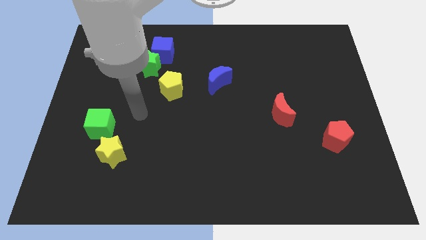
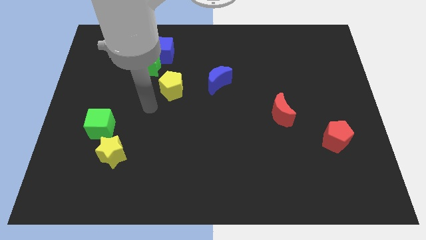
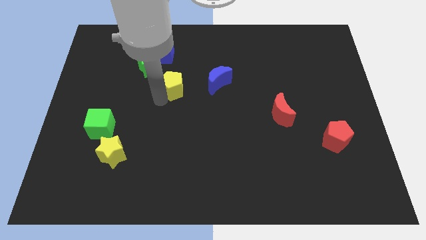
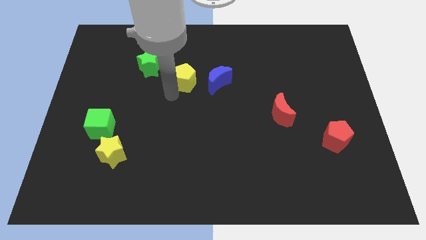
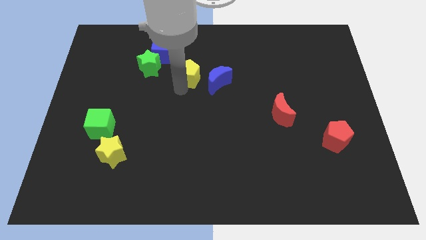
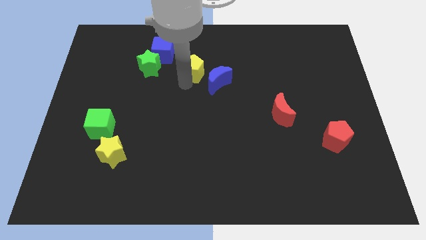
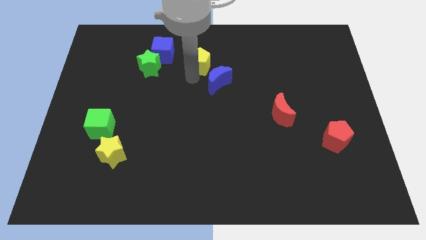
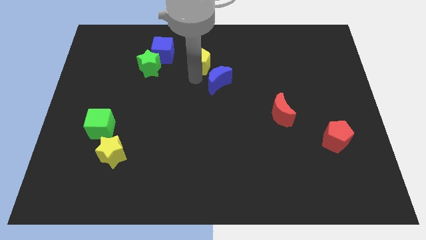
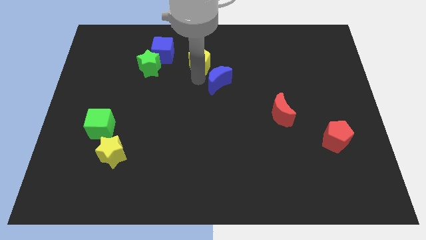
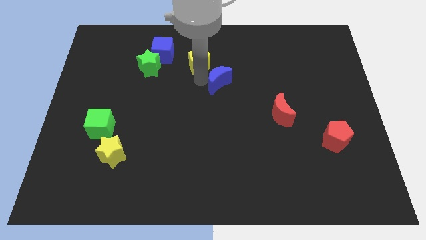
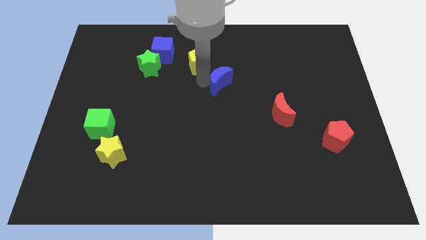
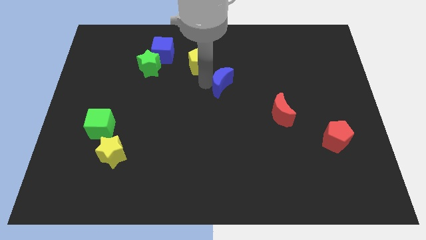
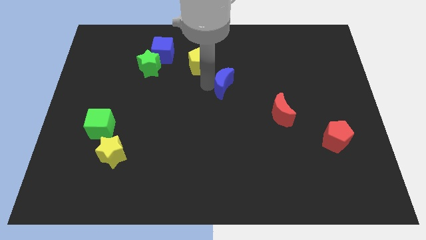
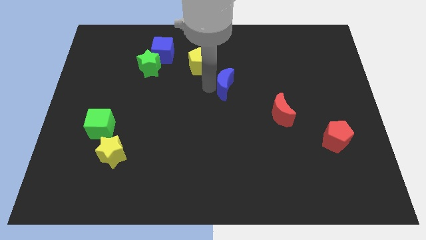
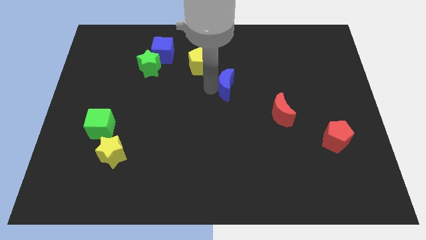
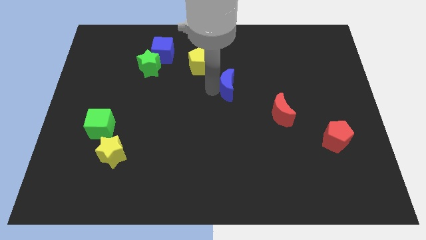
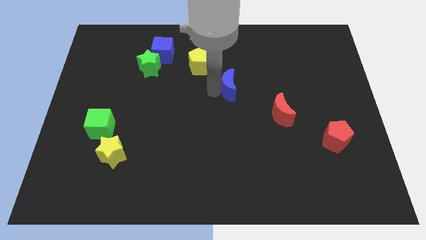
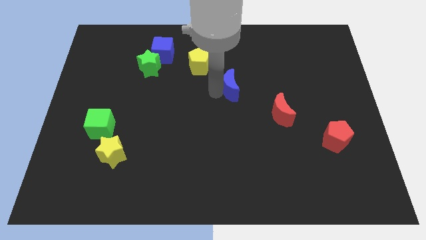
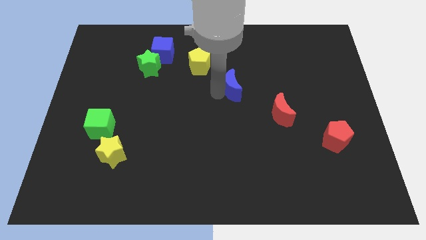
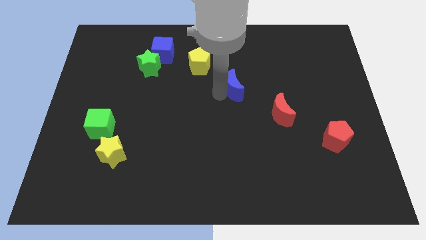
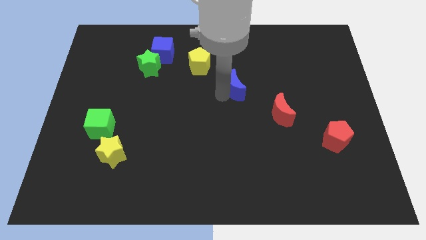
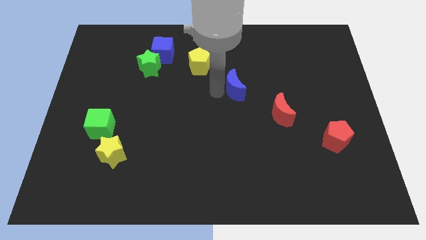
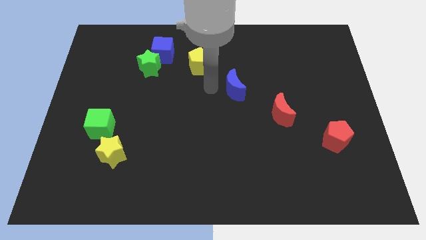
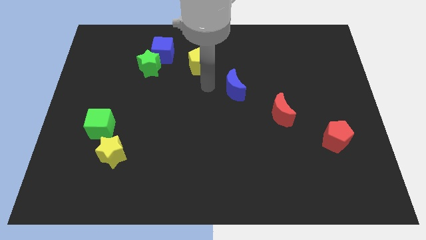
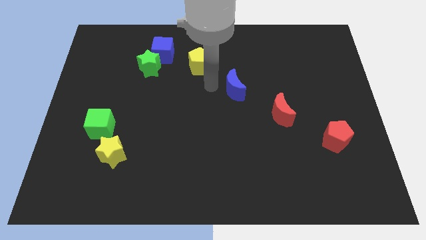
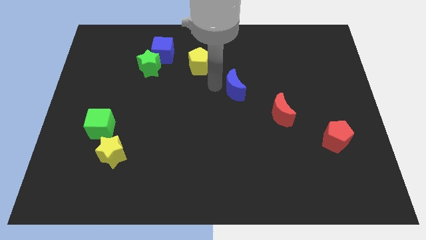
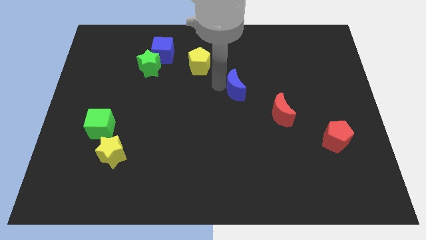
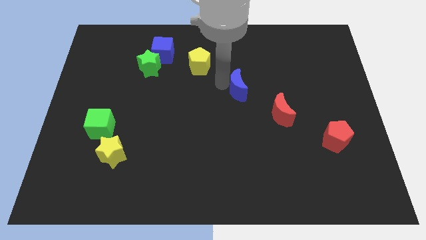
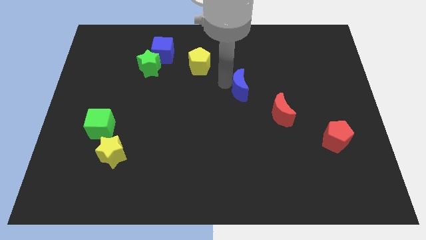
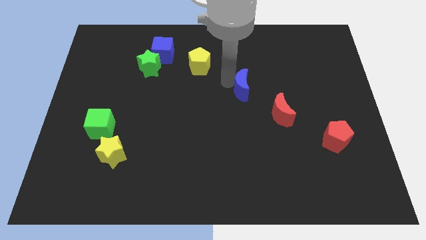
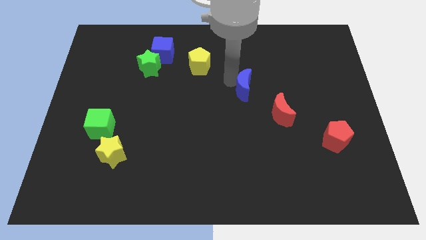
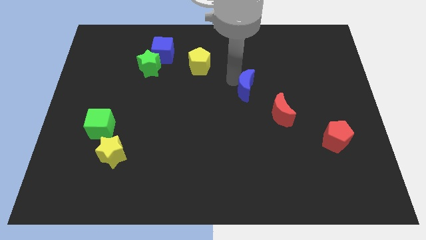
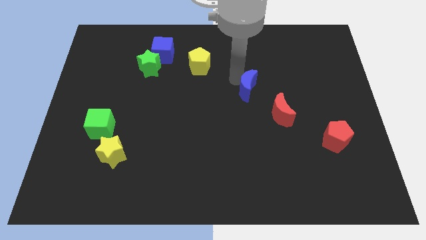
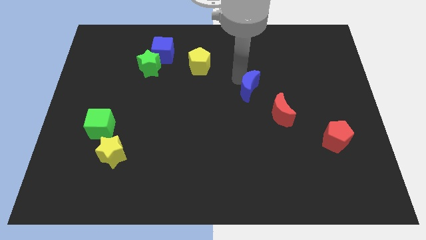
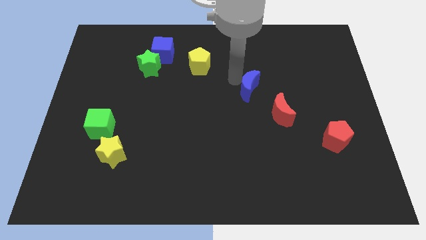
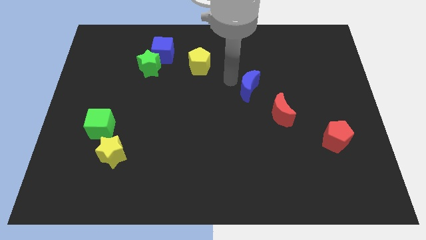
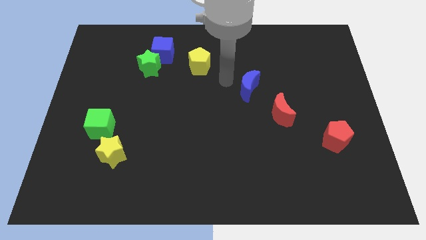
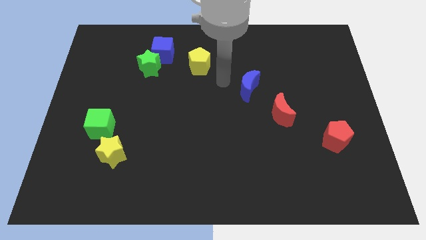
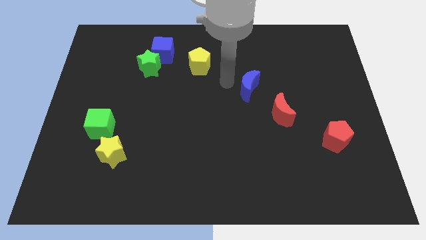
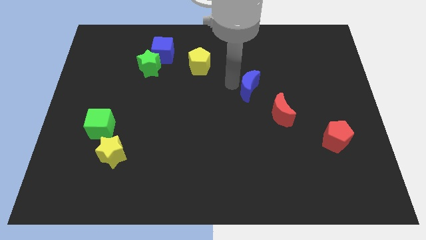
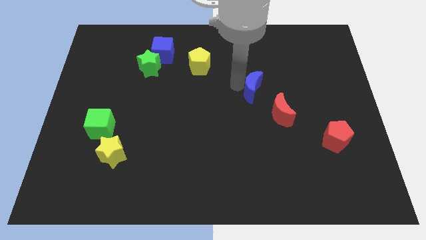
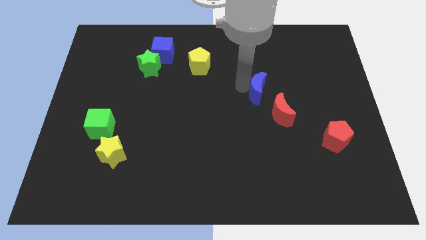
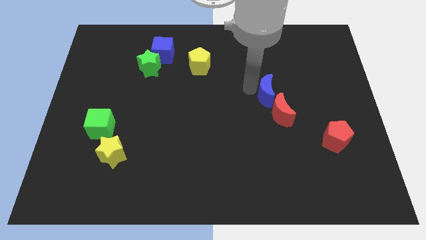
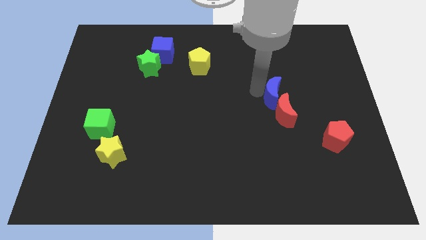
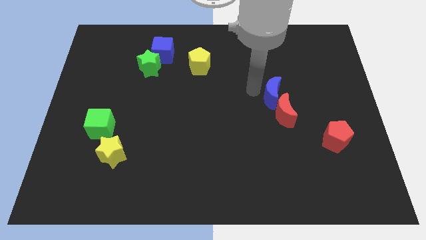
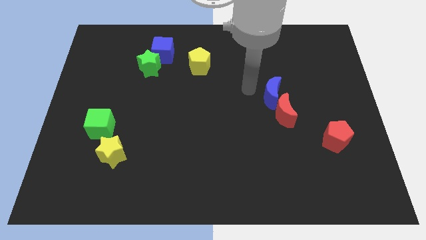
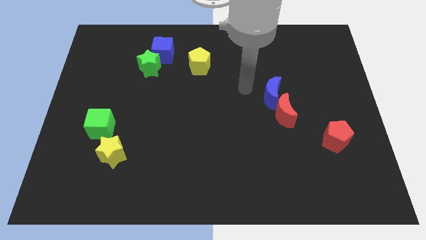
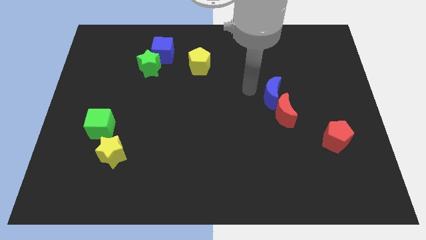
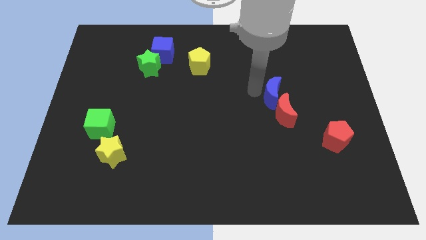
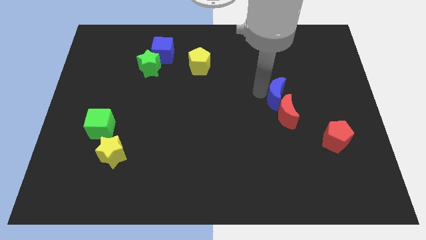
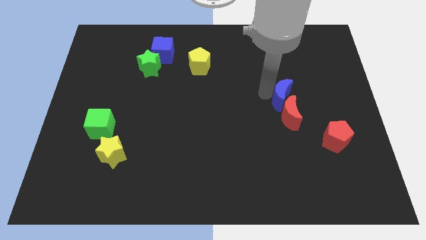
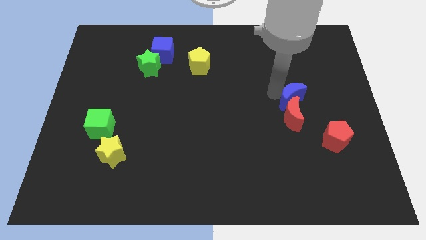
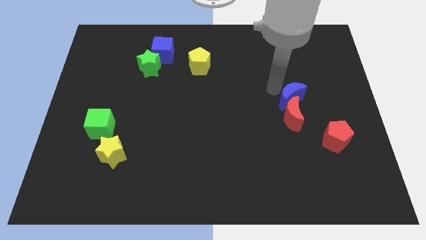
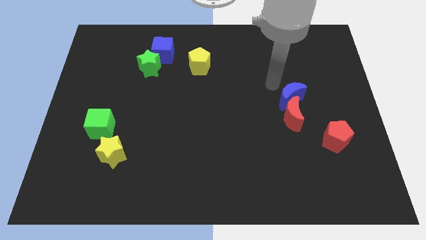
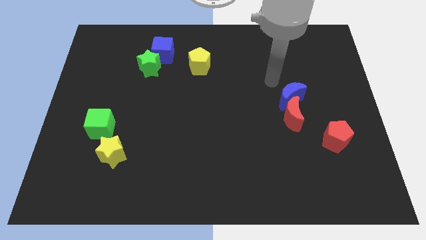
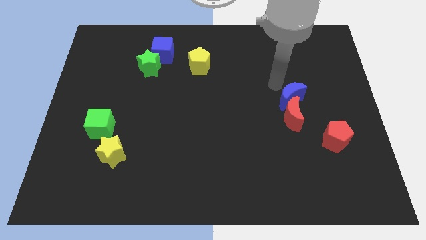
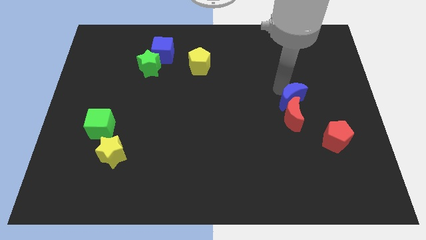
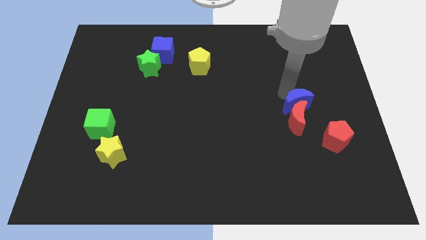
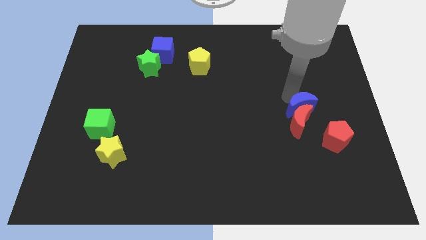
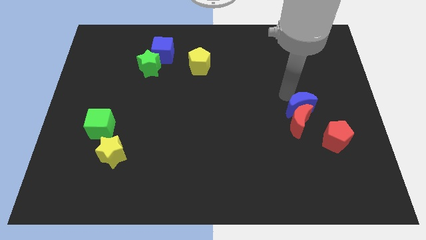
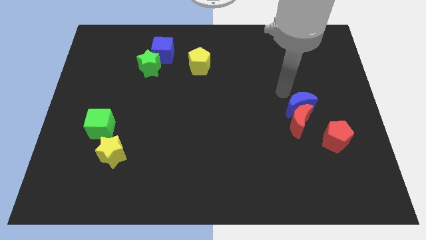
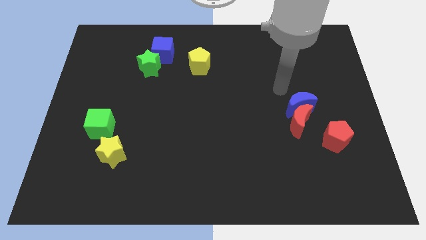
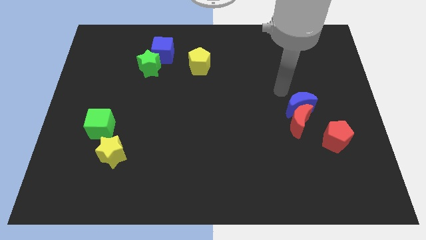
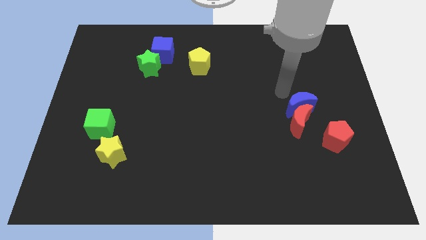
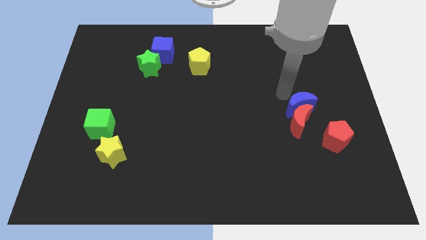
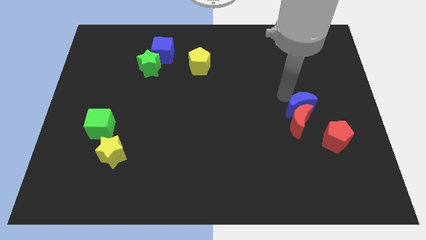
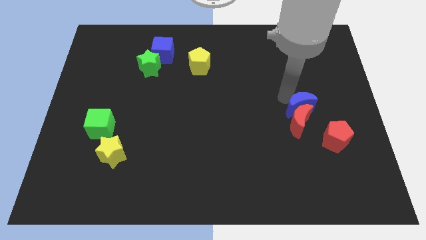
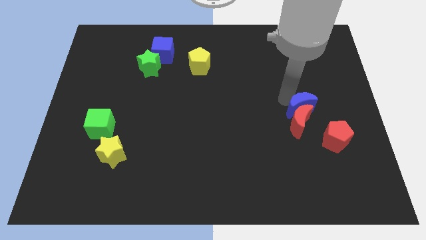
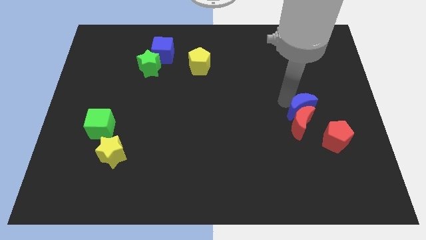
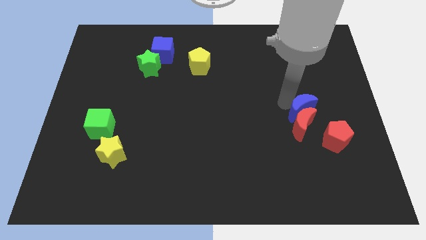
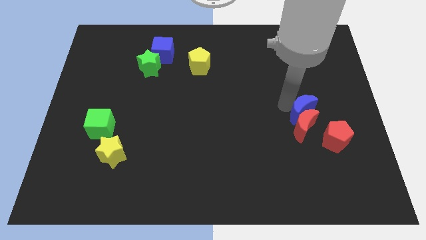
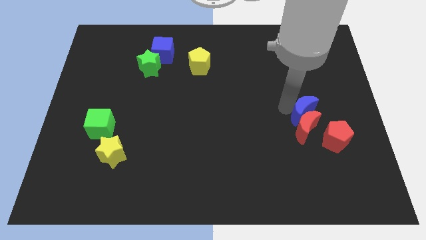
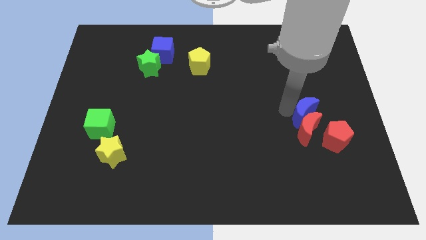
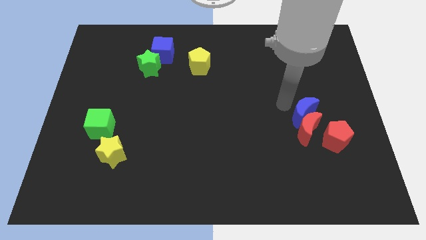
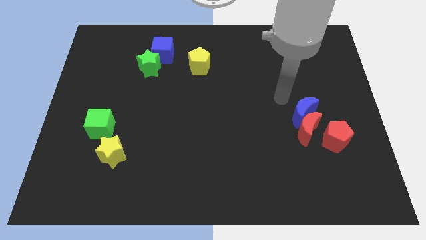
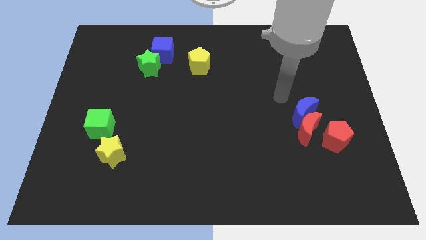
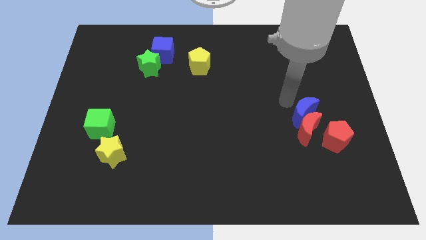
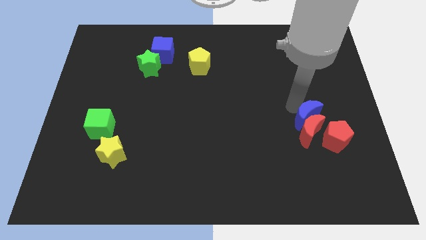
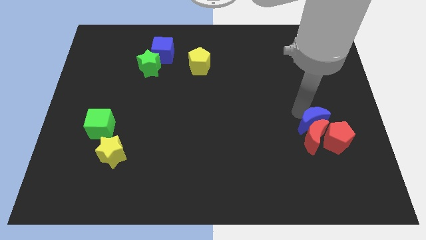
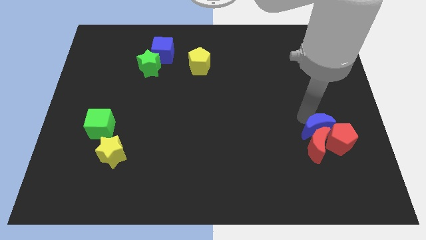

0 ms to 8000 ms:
put the blue moon to the red pentagon
